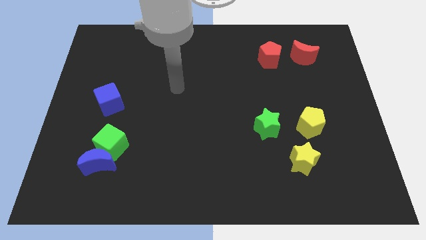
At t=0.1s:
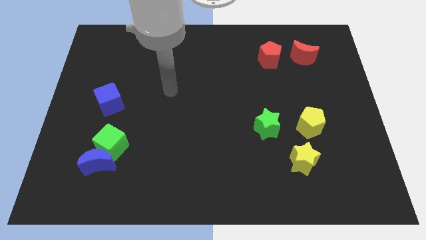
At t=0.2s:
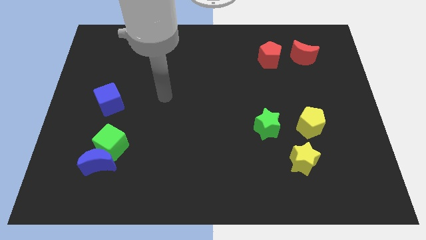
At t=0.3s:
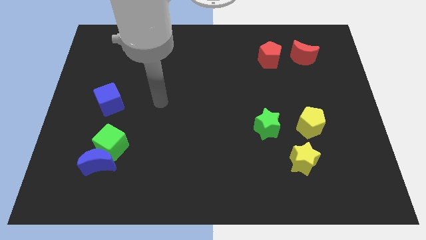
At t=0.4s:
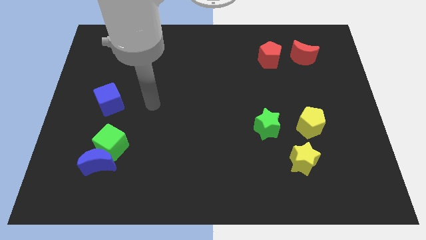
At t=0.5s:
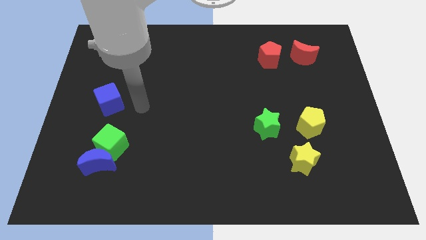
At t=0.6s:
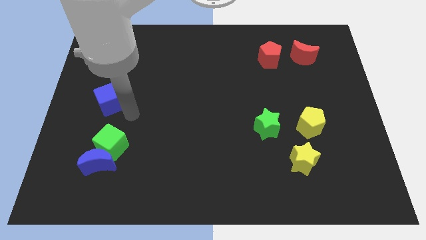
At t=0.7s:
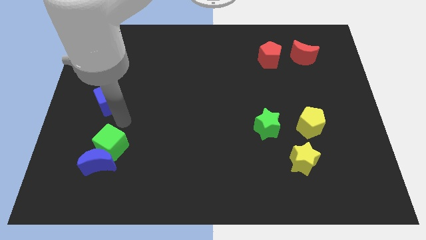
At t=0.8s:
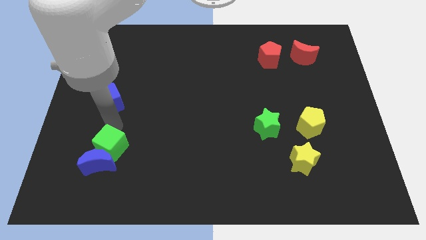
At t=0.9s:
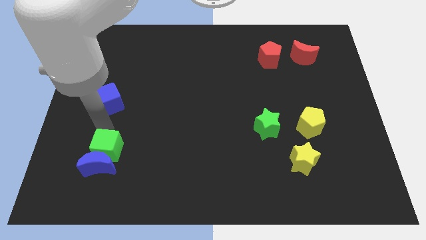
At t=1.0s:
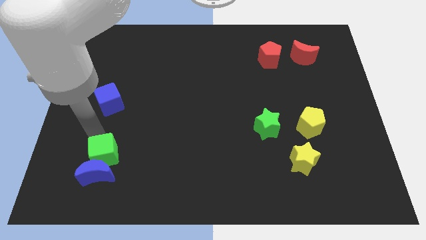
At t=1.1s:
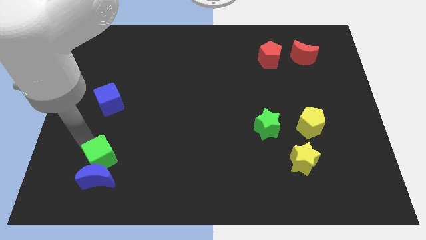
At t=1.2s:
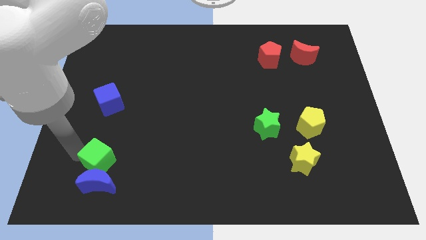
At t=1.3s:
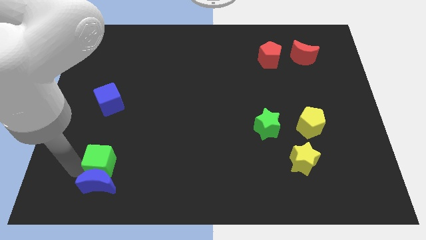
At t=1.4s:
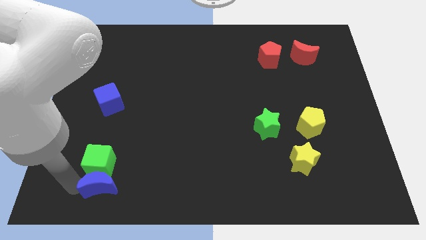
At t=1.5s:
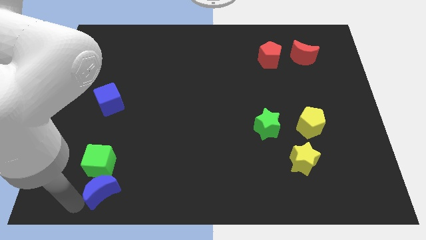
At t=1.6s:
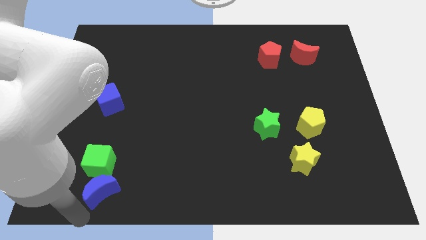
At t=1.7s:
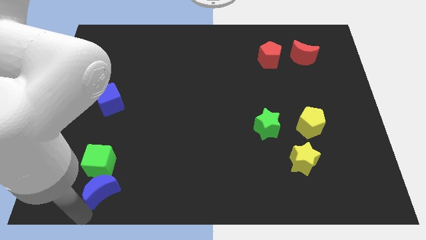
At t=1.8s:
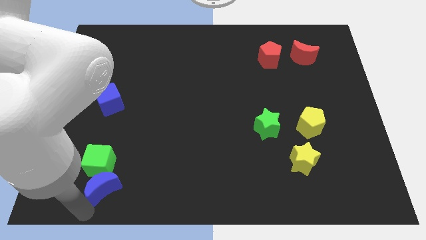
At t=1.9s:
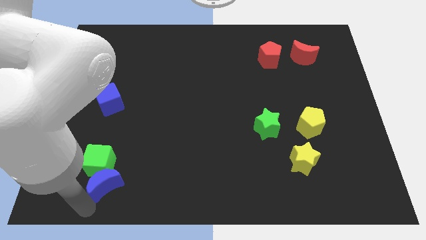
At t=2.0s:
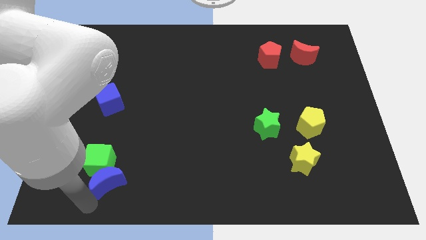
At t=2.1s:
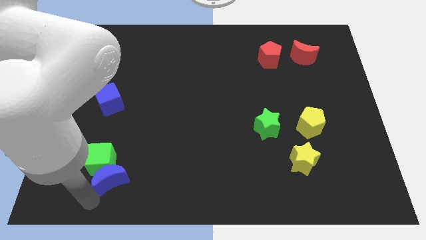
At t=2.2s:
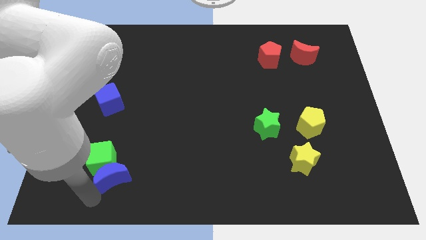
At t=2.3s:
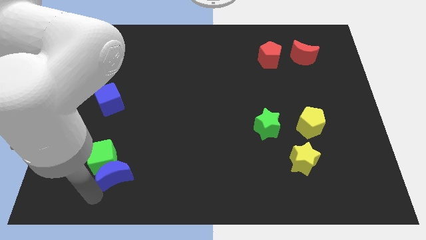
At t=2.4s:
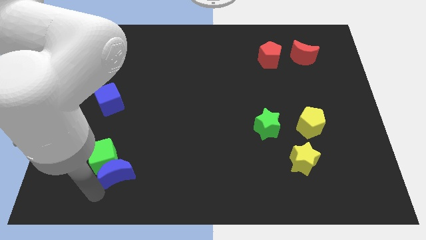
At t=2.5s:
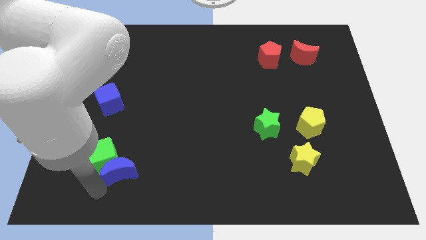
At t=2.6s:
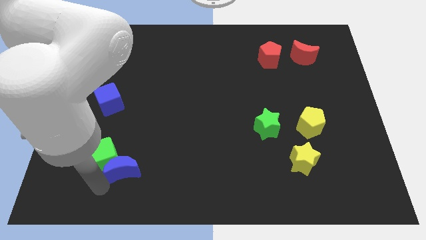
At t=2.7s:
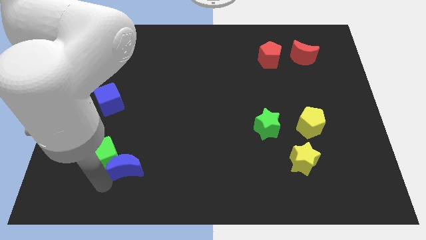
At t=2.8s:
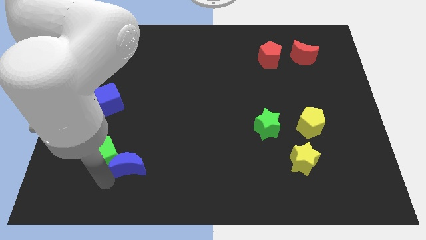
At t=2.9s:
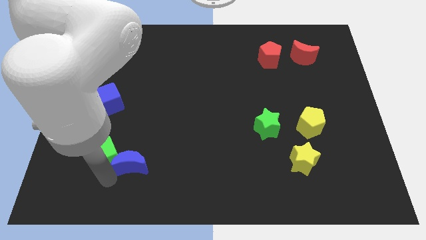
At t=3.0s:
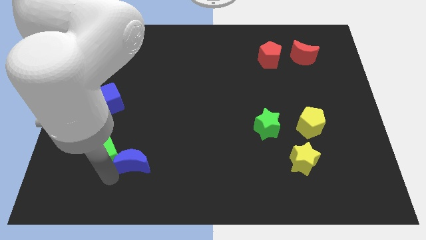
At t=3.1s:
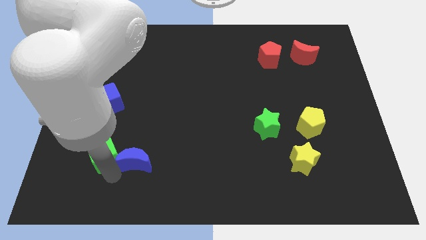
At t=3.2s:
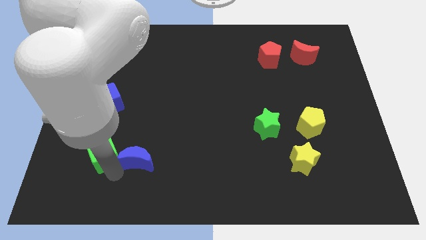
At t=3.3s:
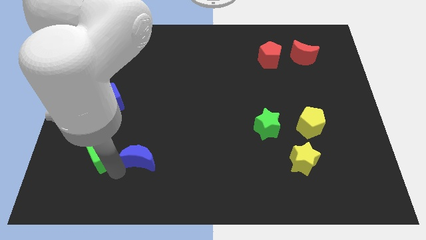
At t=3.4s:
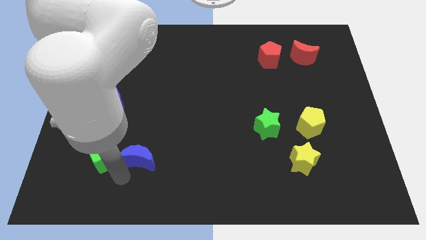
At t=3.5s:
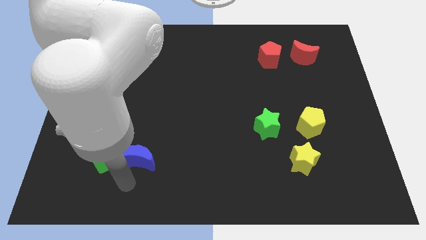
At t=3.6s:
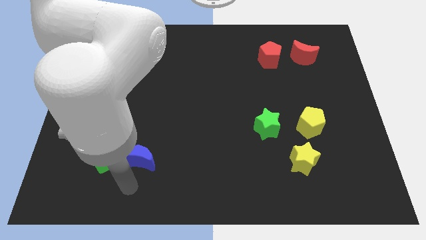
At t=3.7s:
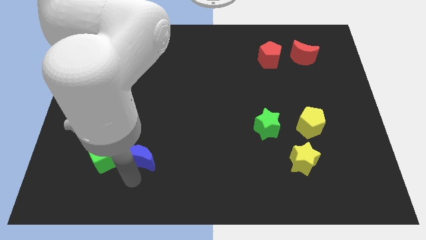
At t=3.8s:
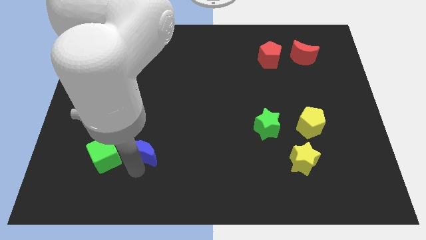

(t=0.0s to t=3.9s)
slightly slide the blue moon up and to the right

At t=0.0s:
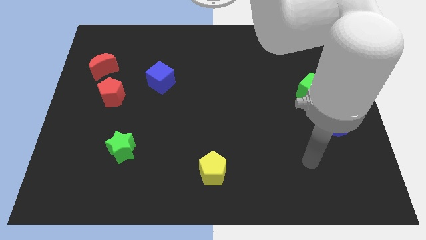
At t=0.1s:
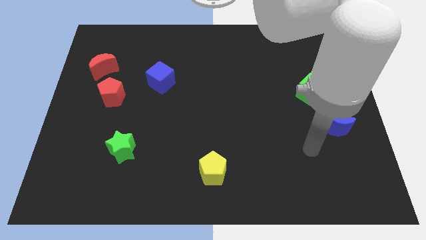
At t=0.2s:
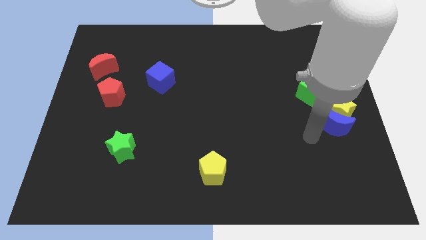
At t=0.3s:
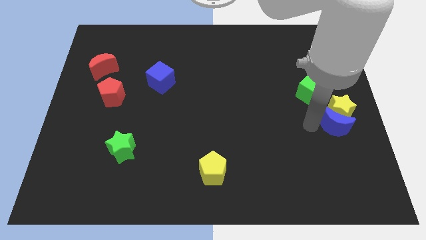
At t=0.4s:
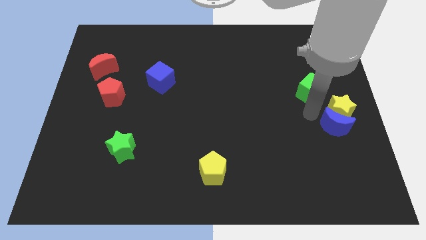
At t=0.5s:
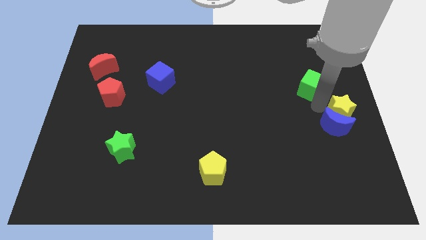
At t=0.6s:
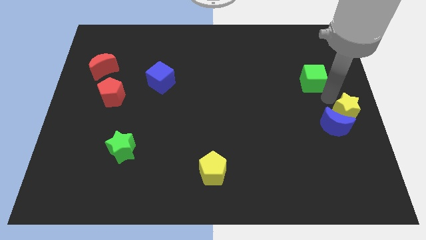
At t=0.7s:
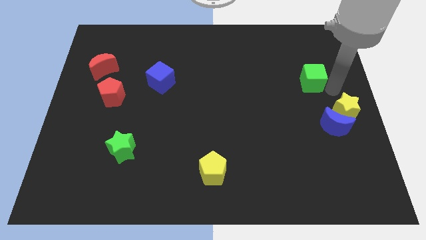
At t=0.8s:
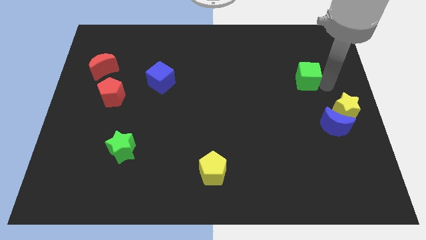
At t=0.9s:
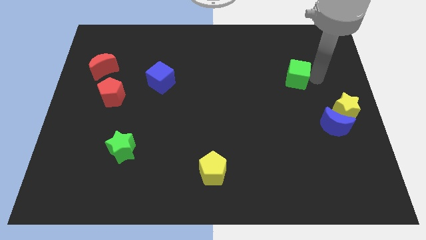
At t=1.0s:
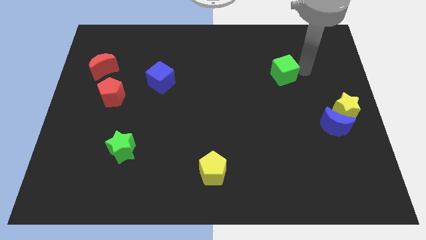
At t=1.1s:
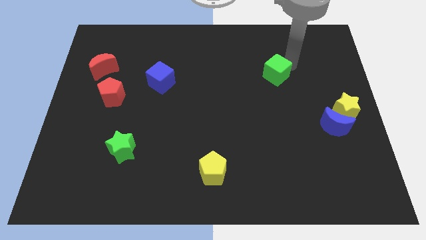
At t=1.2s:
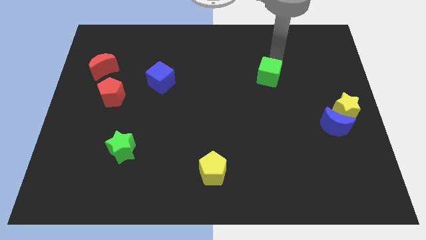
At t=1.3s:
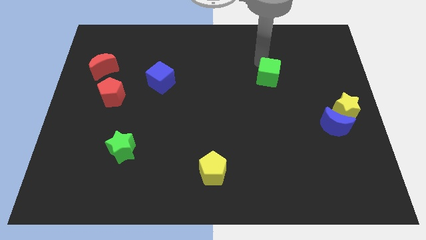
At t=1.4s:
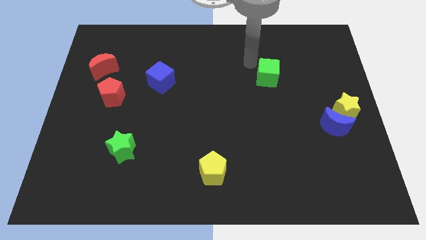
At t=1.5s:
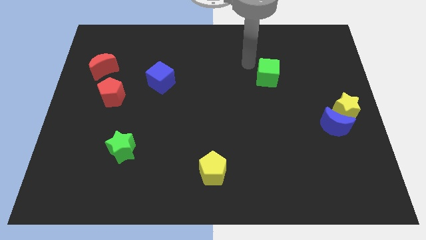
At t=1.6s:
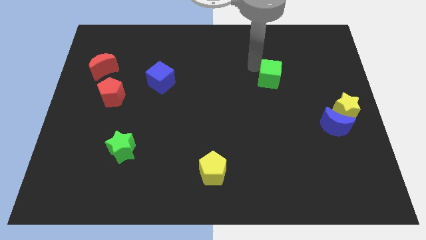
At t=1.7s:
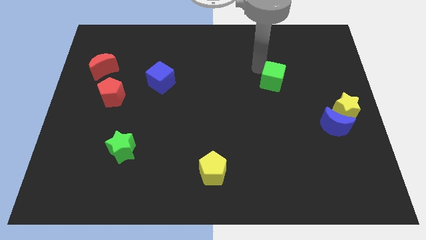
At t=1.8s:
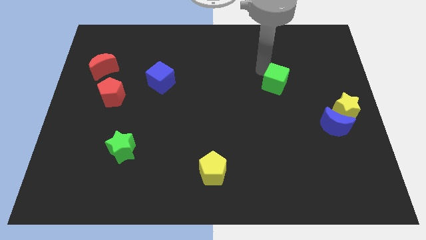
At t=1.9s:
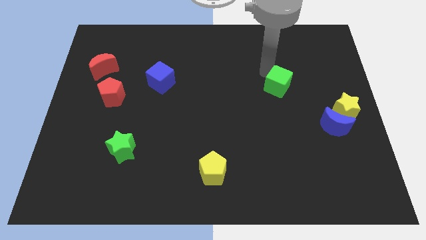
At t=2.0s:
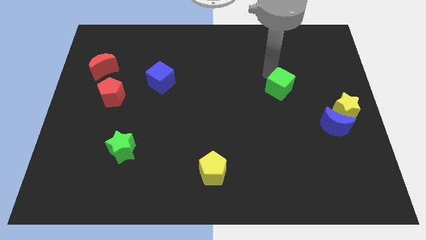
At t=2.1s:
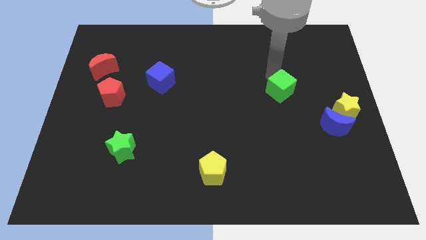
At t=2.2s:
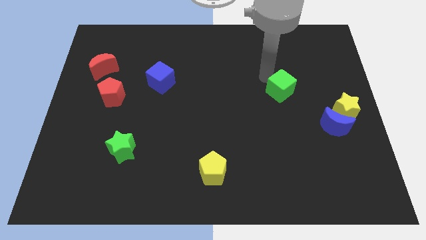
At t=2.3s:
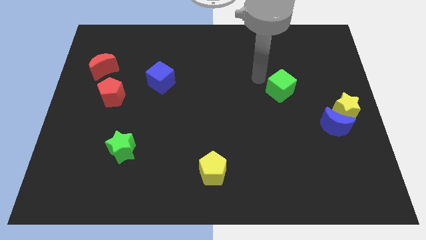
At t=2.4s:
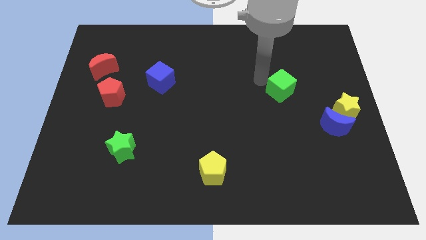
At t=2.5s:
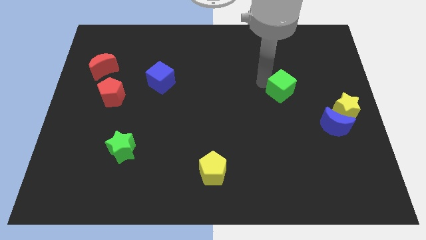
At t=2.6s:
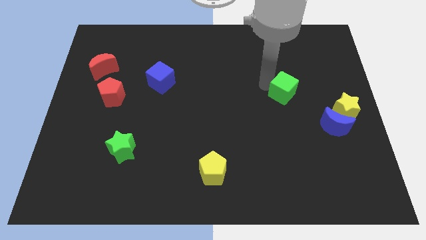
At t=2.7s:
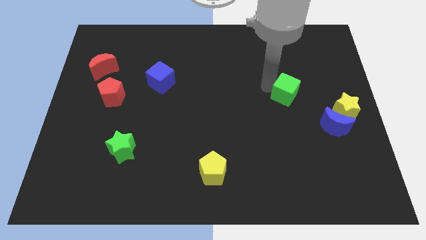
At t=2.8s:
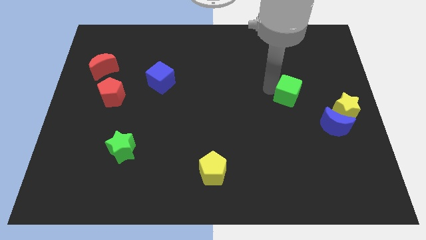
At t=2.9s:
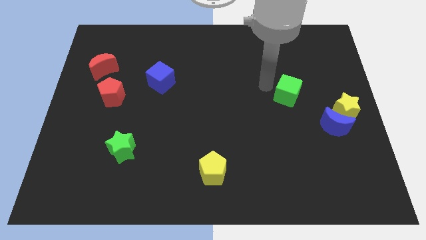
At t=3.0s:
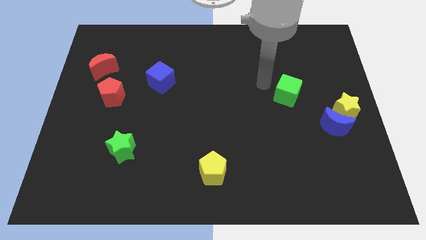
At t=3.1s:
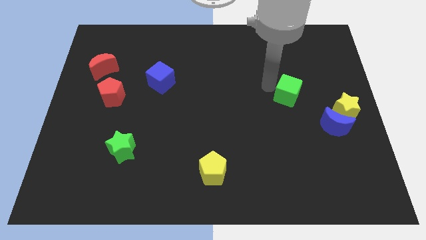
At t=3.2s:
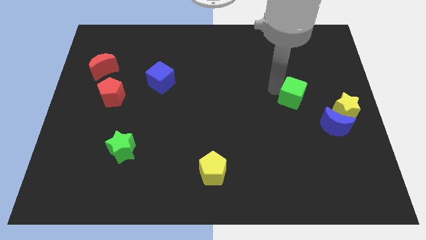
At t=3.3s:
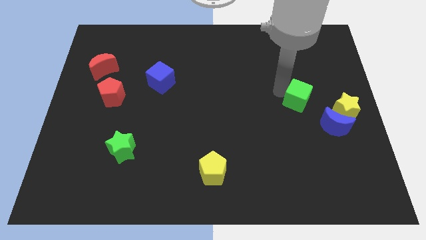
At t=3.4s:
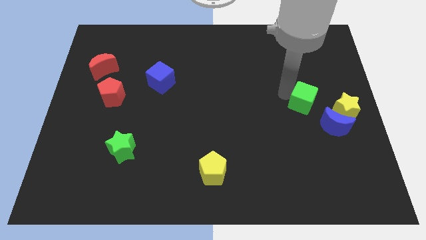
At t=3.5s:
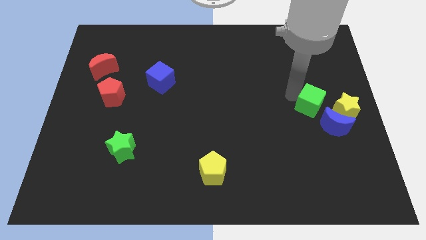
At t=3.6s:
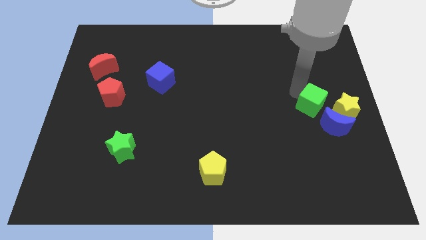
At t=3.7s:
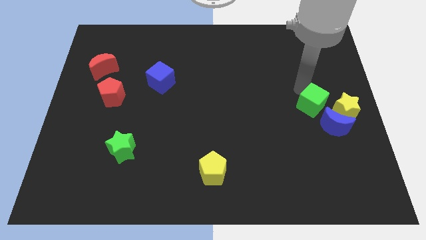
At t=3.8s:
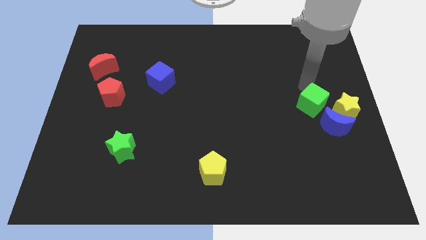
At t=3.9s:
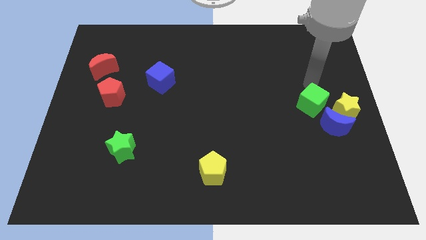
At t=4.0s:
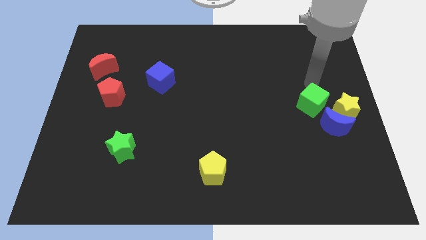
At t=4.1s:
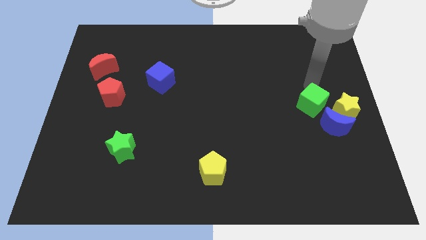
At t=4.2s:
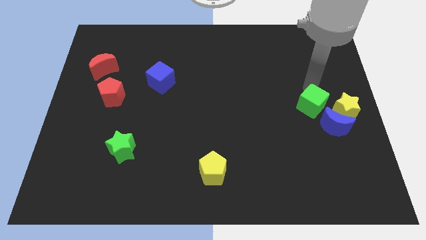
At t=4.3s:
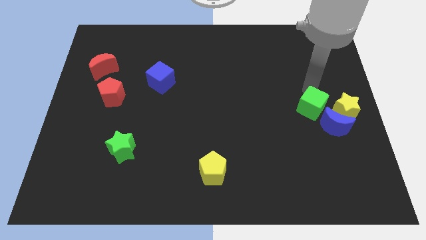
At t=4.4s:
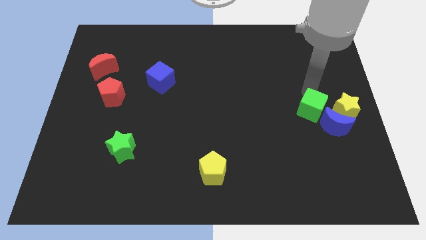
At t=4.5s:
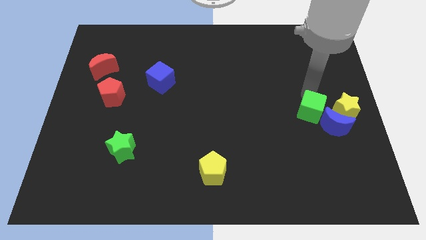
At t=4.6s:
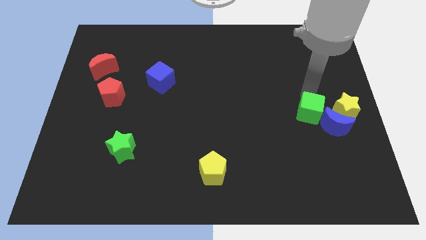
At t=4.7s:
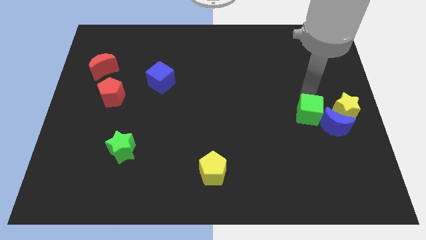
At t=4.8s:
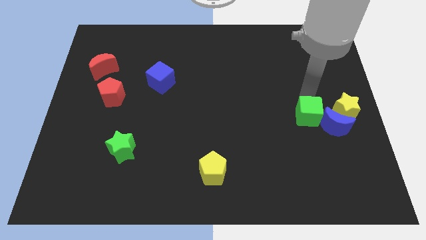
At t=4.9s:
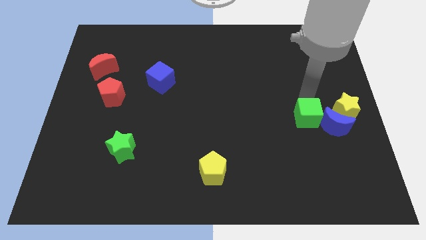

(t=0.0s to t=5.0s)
slightly push the green cube downwards
